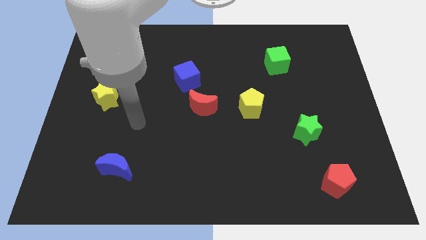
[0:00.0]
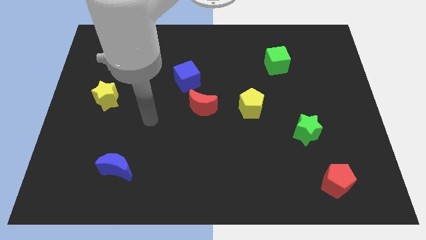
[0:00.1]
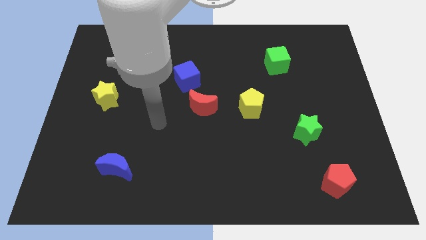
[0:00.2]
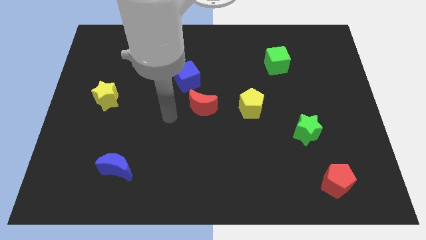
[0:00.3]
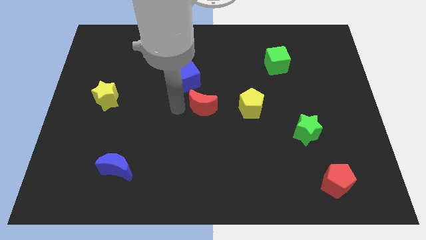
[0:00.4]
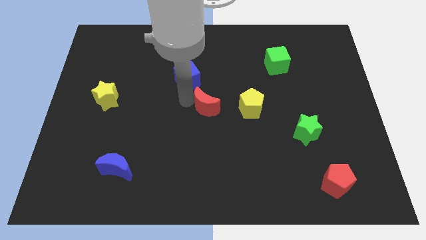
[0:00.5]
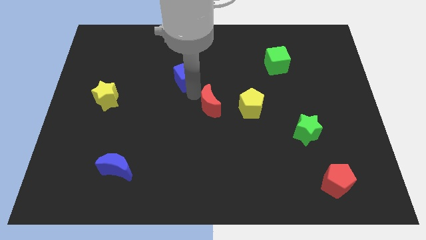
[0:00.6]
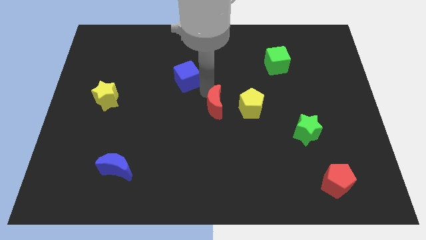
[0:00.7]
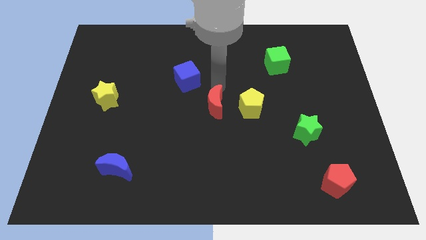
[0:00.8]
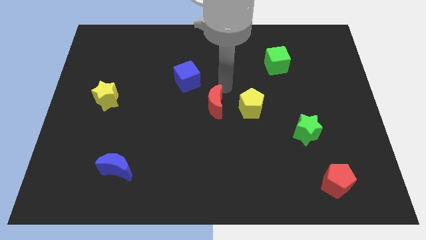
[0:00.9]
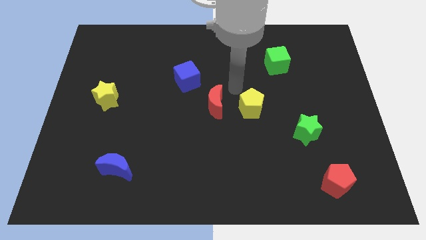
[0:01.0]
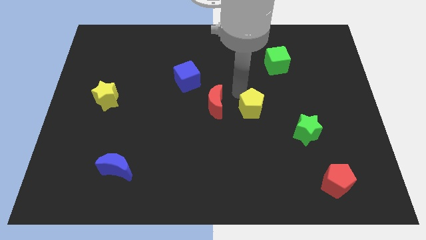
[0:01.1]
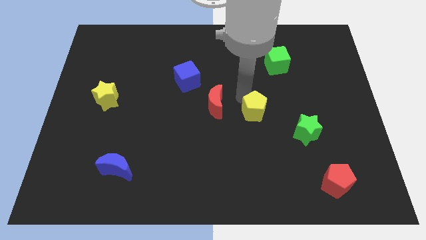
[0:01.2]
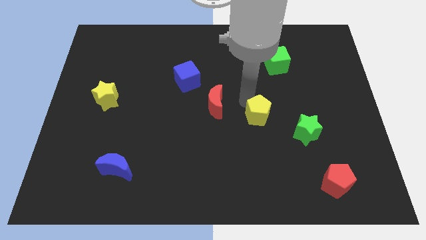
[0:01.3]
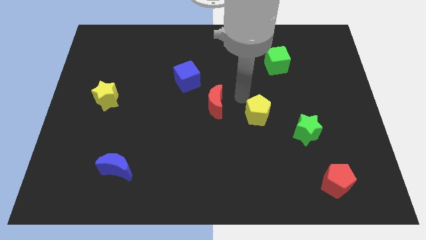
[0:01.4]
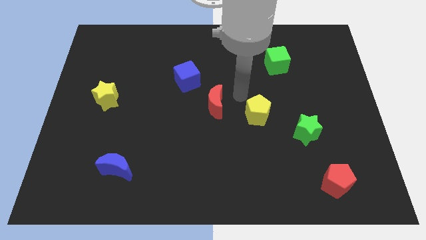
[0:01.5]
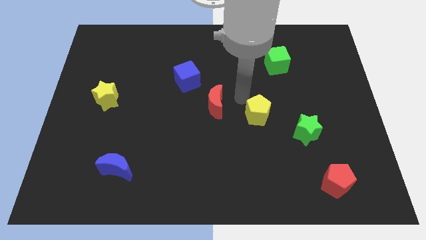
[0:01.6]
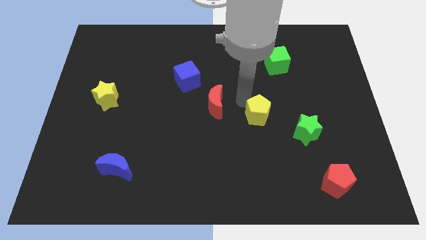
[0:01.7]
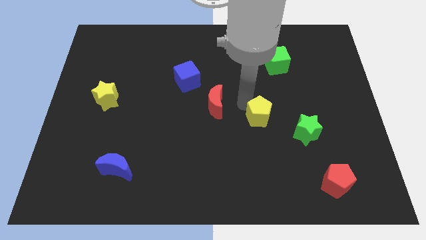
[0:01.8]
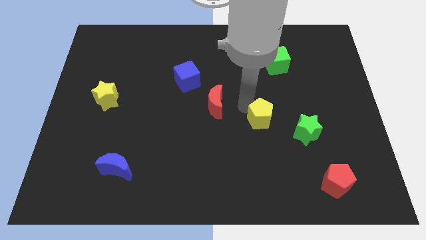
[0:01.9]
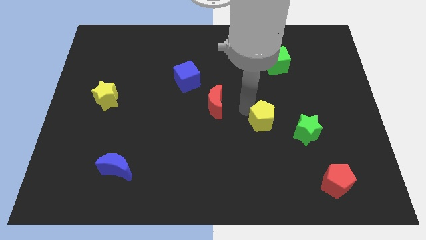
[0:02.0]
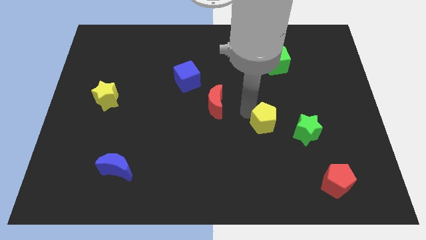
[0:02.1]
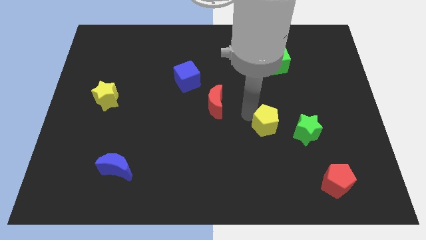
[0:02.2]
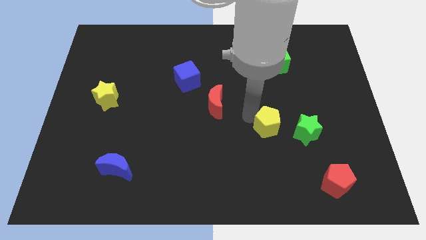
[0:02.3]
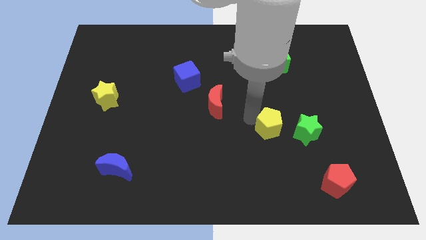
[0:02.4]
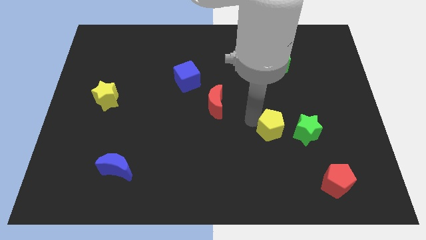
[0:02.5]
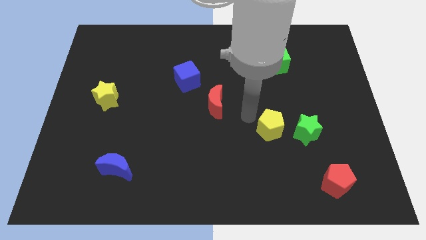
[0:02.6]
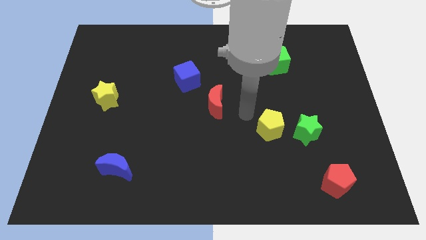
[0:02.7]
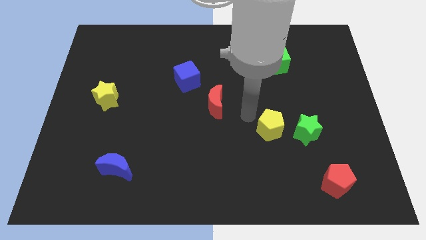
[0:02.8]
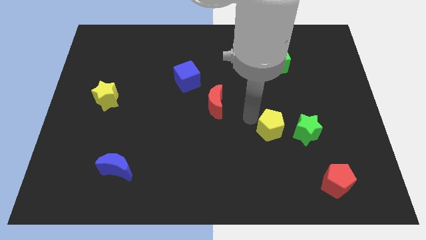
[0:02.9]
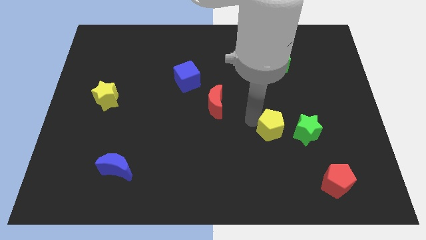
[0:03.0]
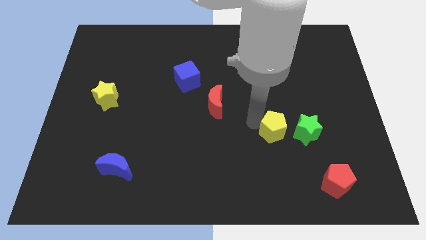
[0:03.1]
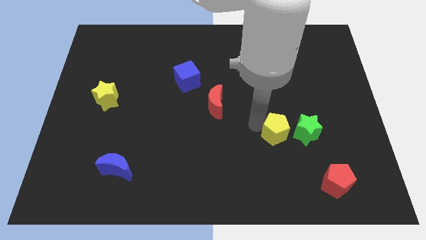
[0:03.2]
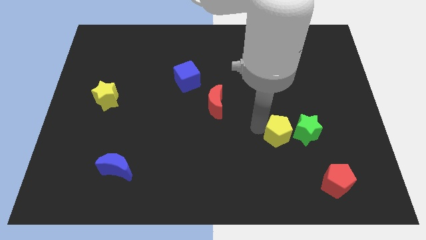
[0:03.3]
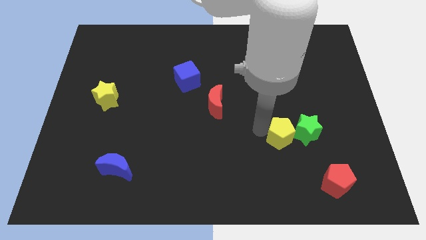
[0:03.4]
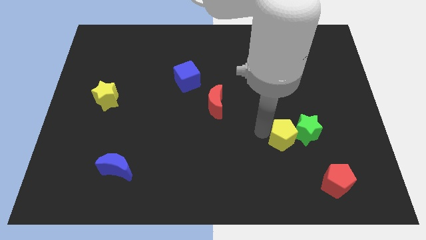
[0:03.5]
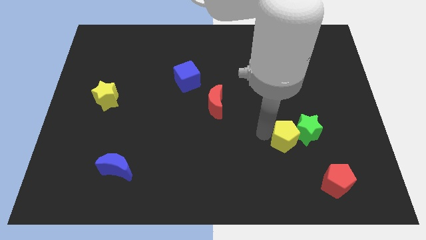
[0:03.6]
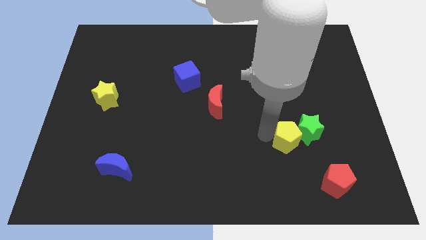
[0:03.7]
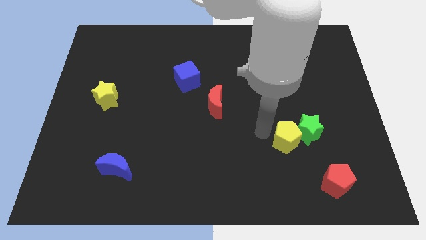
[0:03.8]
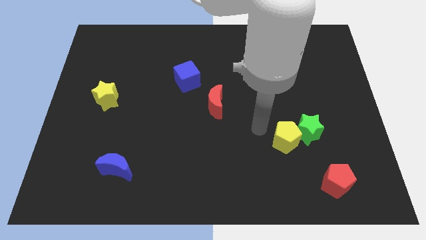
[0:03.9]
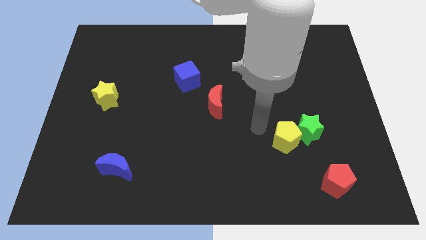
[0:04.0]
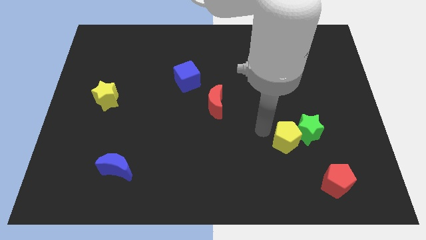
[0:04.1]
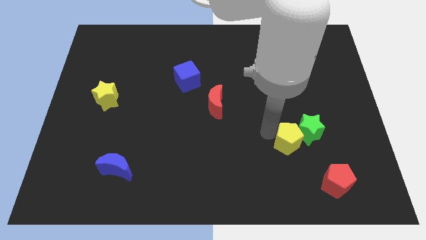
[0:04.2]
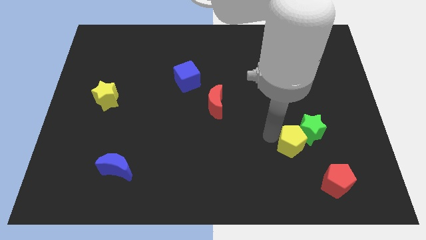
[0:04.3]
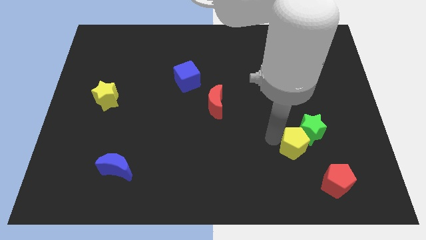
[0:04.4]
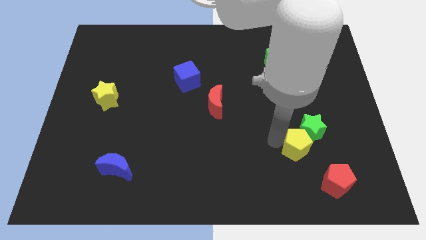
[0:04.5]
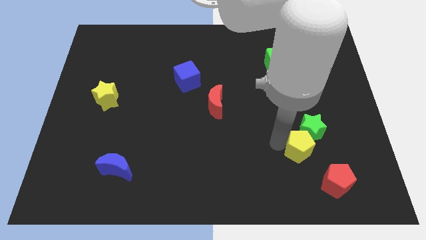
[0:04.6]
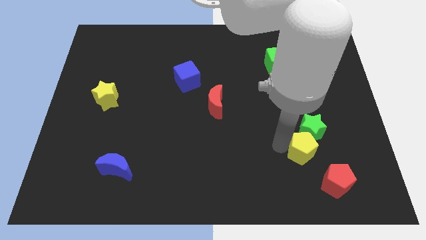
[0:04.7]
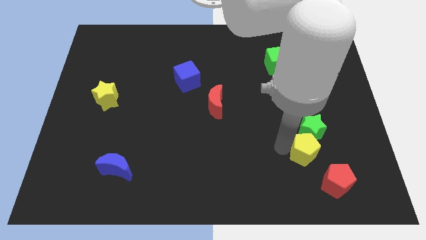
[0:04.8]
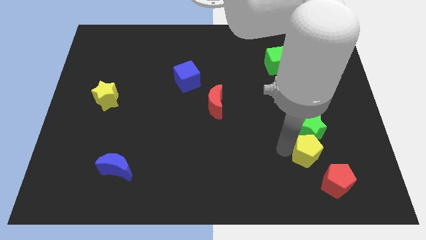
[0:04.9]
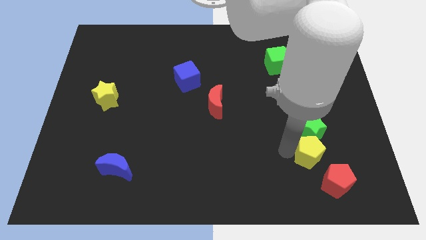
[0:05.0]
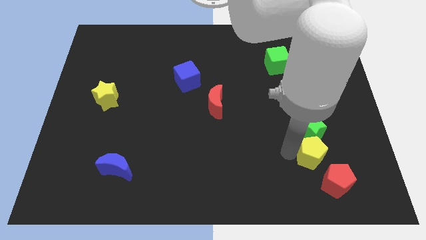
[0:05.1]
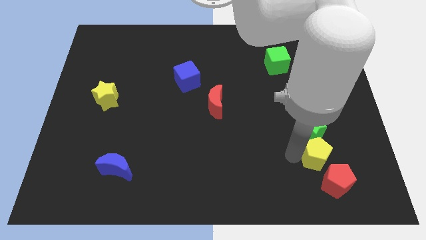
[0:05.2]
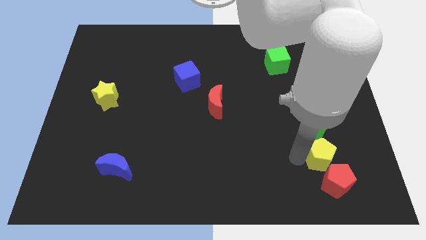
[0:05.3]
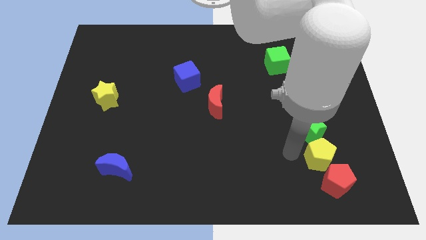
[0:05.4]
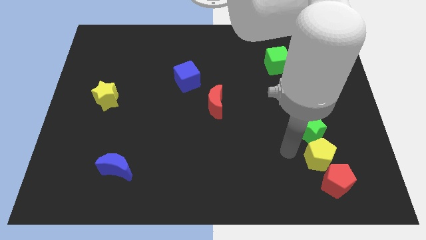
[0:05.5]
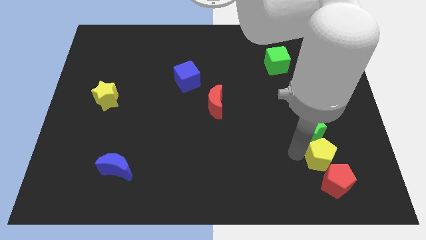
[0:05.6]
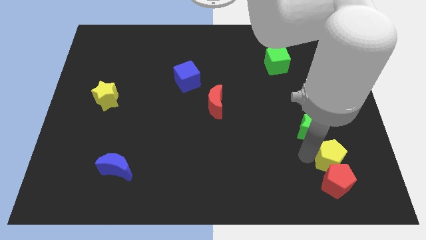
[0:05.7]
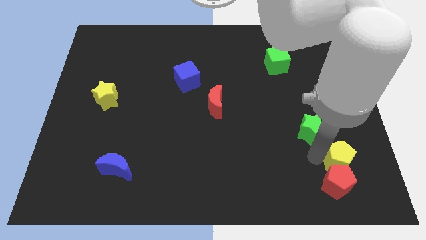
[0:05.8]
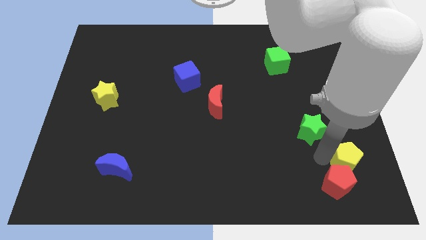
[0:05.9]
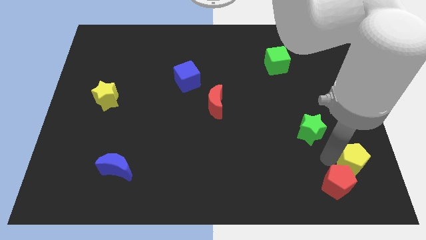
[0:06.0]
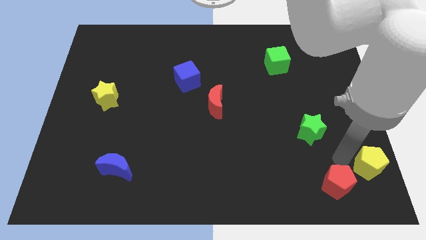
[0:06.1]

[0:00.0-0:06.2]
move the yellow pentagon to the bottom right corner

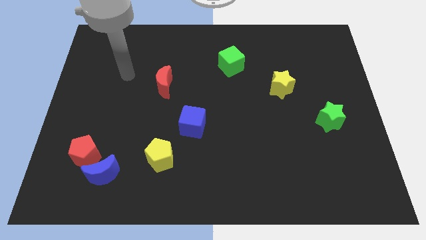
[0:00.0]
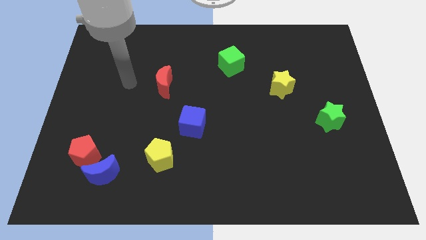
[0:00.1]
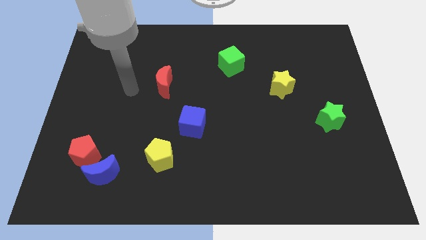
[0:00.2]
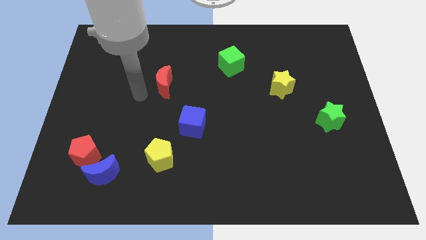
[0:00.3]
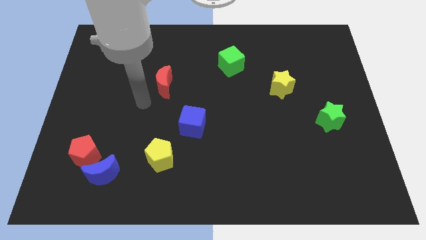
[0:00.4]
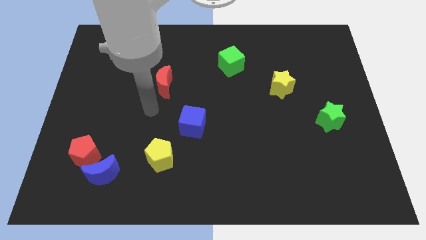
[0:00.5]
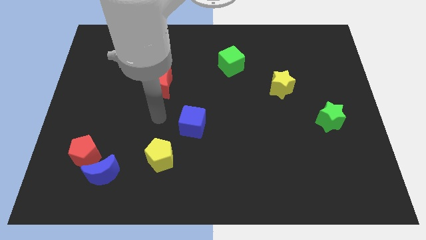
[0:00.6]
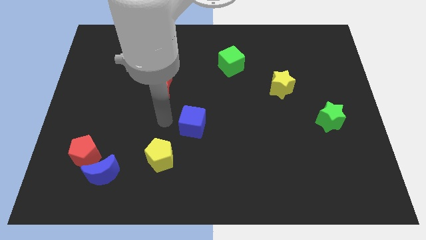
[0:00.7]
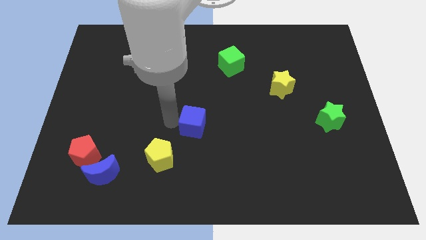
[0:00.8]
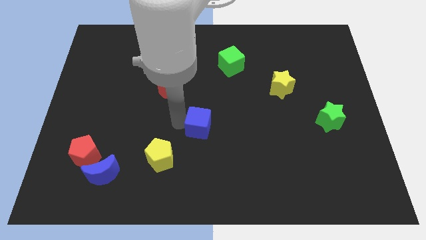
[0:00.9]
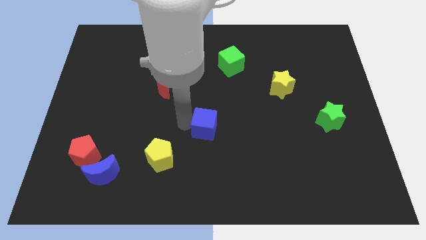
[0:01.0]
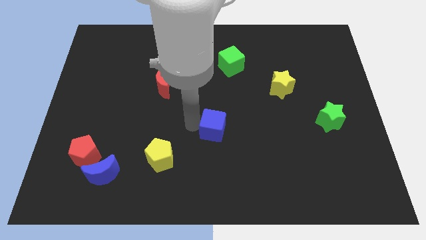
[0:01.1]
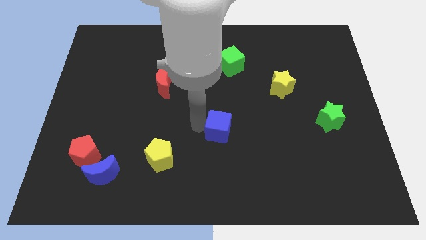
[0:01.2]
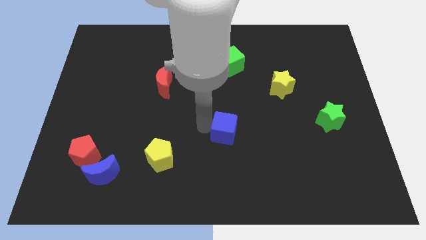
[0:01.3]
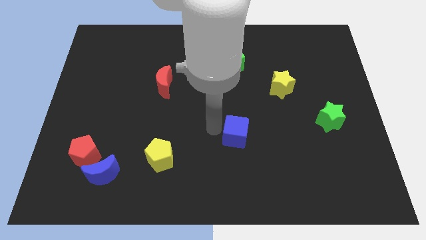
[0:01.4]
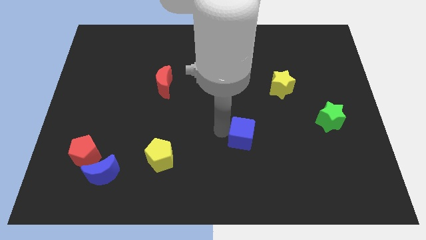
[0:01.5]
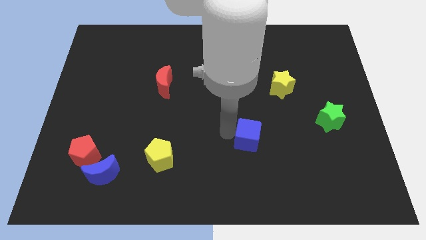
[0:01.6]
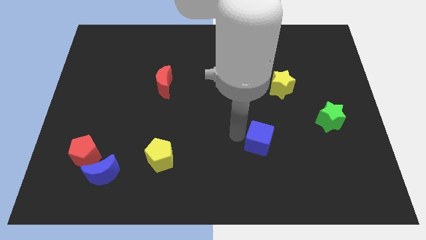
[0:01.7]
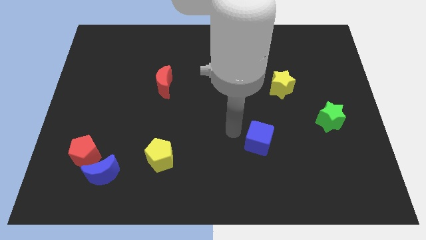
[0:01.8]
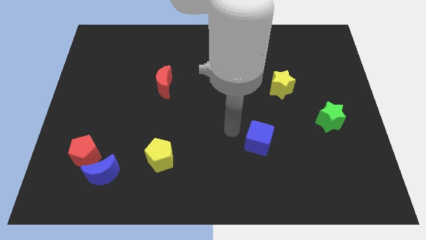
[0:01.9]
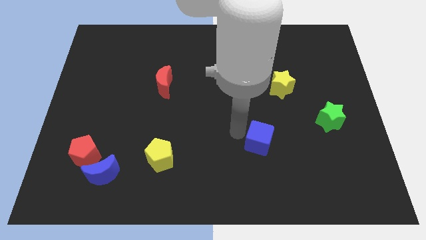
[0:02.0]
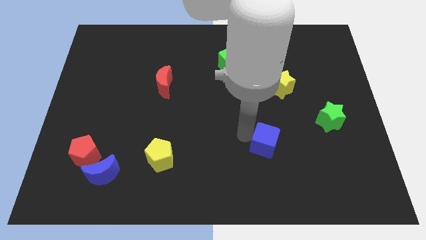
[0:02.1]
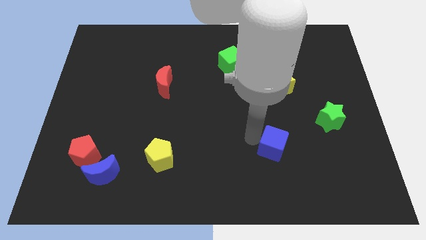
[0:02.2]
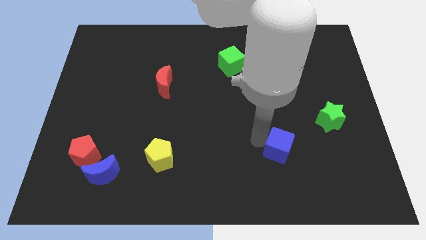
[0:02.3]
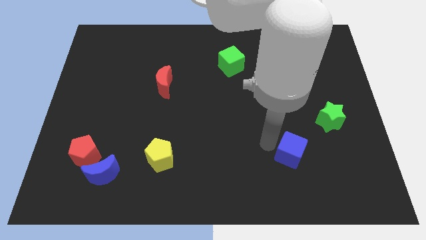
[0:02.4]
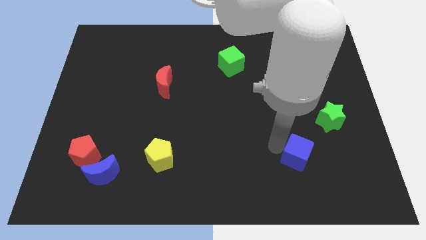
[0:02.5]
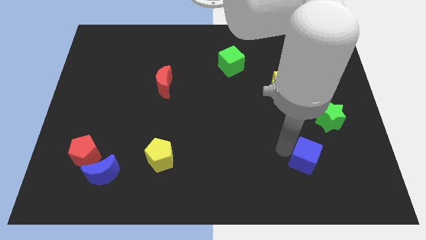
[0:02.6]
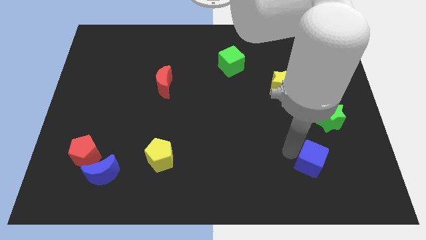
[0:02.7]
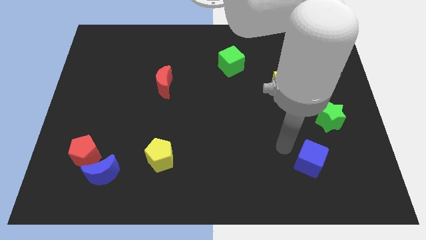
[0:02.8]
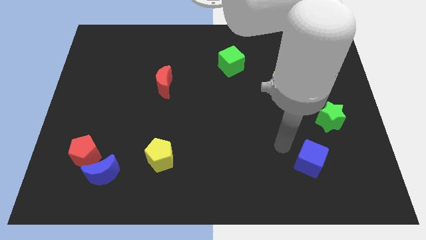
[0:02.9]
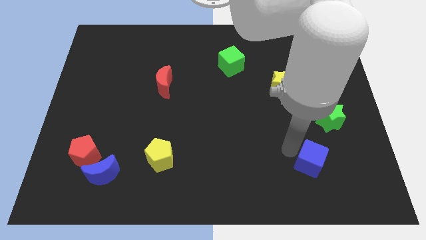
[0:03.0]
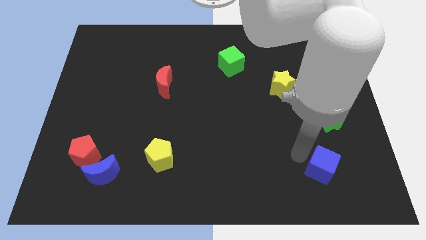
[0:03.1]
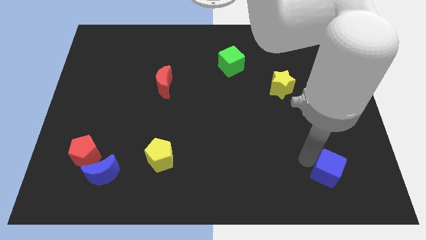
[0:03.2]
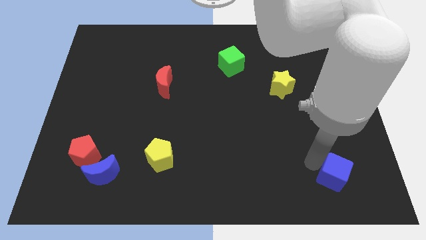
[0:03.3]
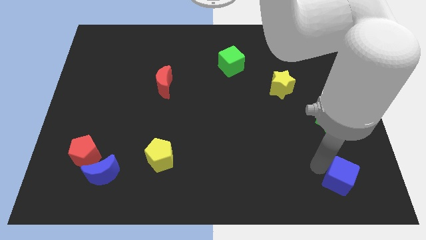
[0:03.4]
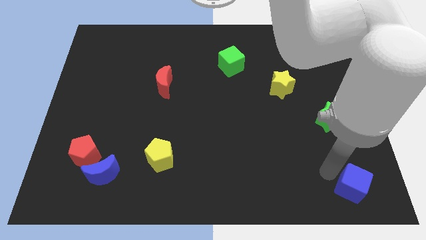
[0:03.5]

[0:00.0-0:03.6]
push the blue cube to the bottom right of the board
